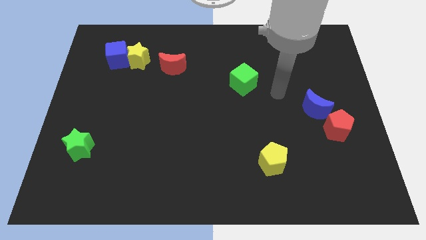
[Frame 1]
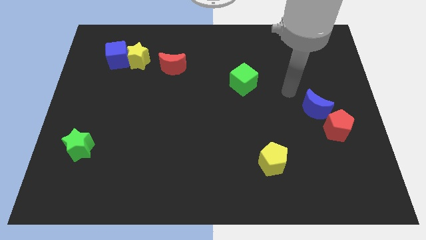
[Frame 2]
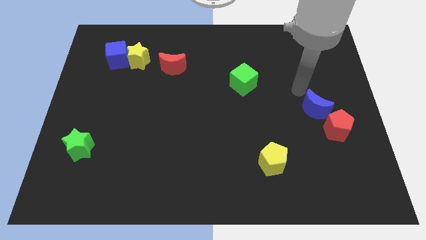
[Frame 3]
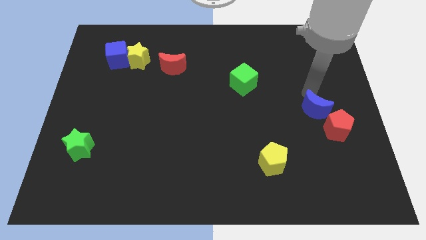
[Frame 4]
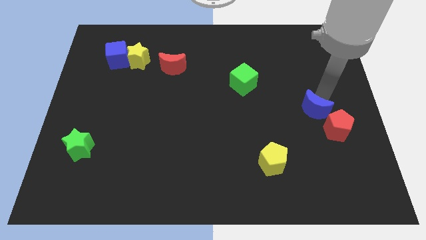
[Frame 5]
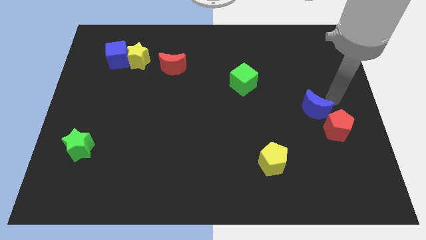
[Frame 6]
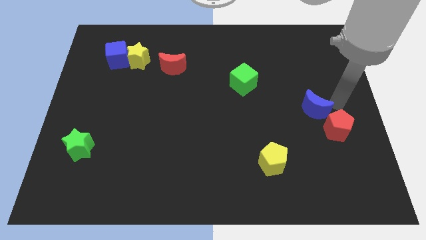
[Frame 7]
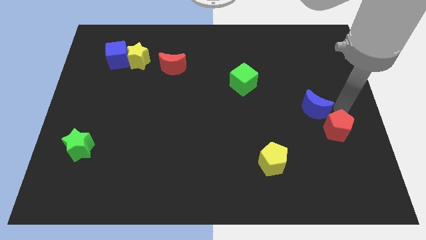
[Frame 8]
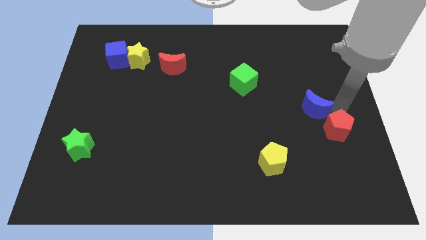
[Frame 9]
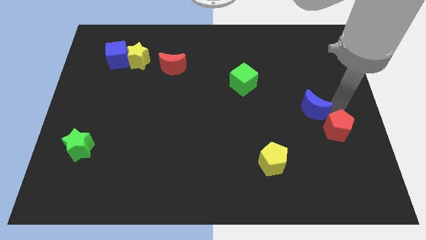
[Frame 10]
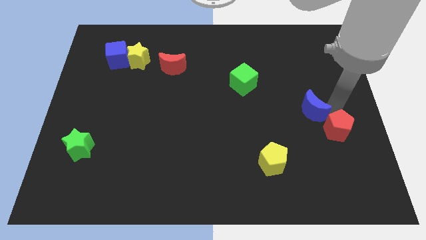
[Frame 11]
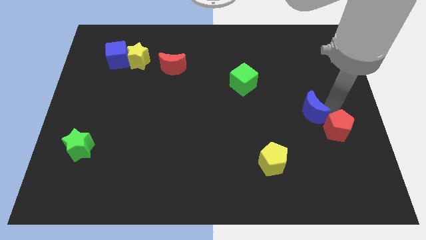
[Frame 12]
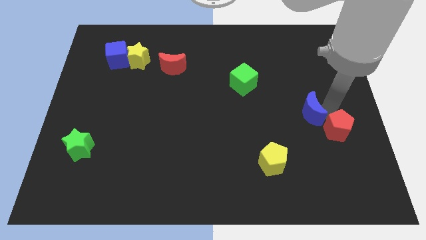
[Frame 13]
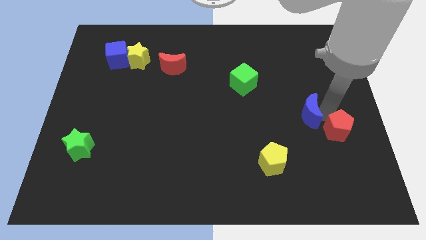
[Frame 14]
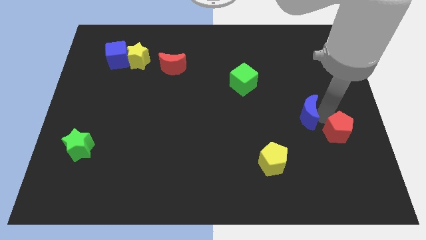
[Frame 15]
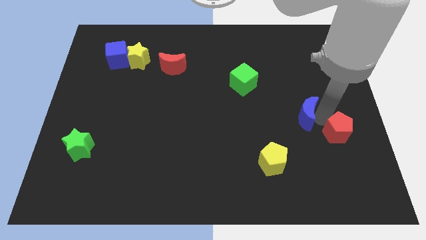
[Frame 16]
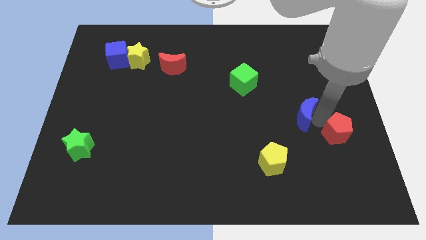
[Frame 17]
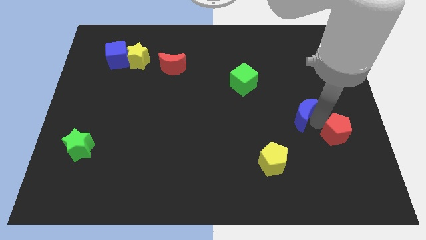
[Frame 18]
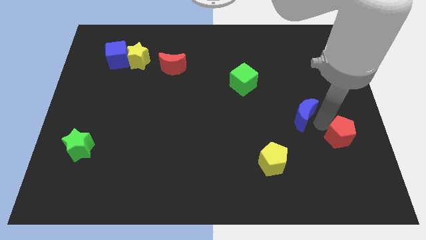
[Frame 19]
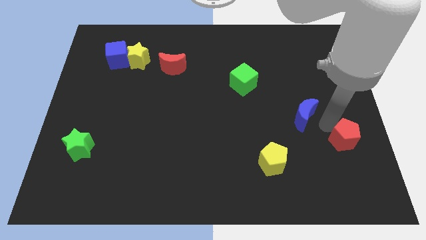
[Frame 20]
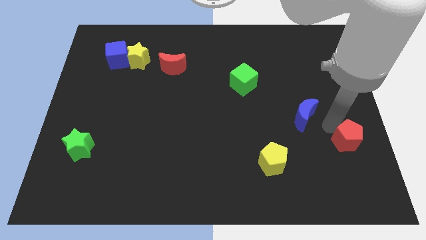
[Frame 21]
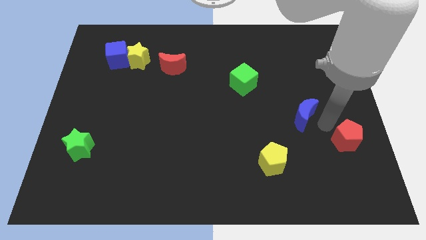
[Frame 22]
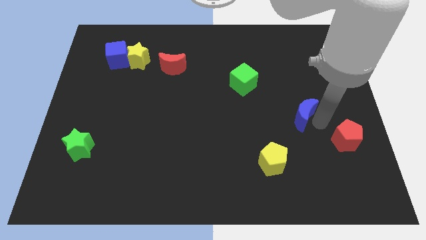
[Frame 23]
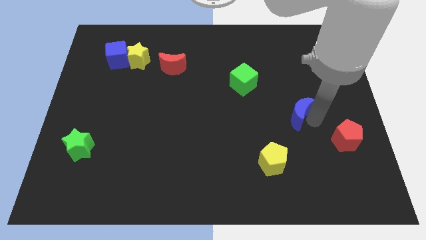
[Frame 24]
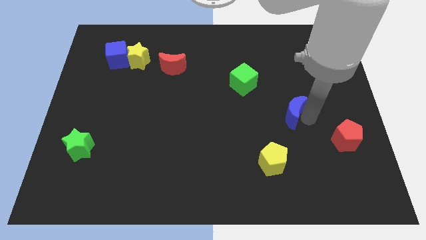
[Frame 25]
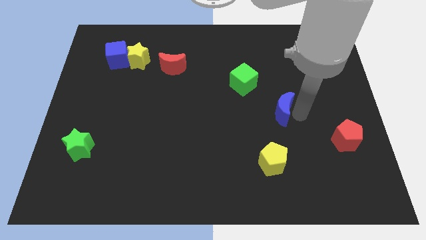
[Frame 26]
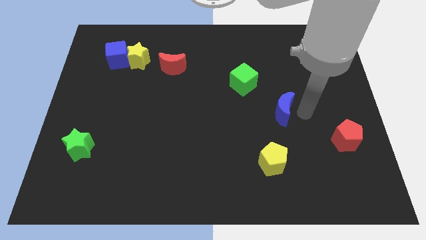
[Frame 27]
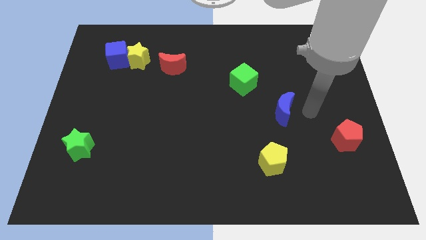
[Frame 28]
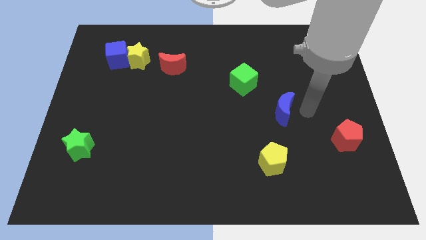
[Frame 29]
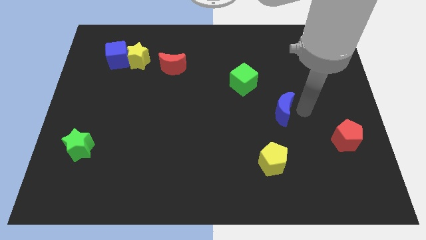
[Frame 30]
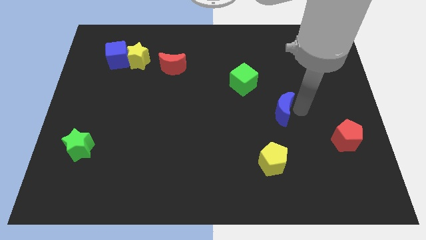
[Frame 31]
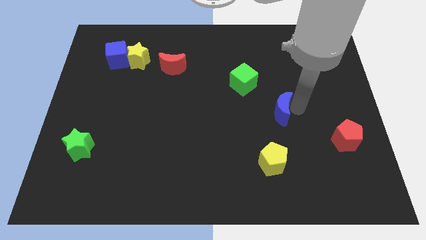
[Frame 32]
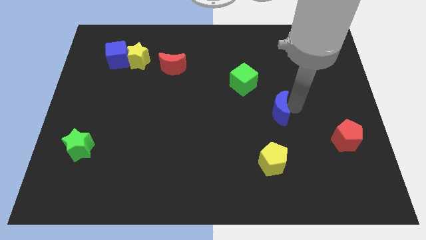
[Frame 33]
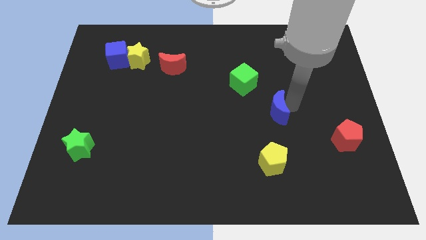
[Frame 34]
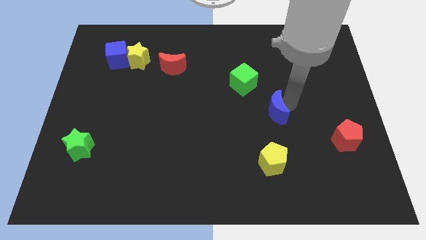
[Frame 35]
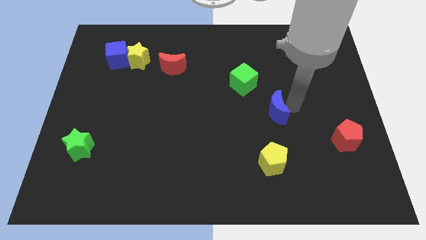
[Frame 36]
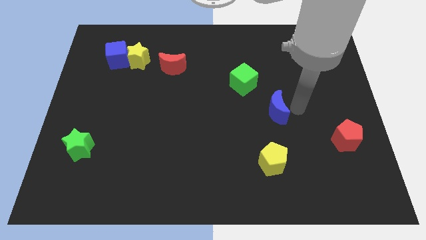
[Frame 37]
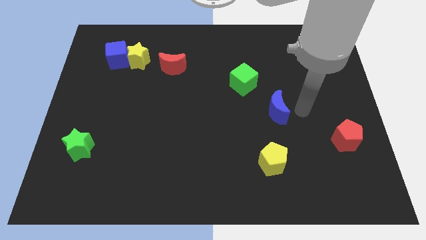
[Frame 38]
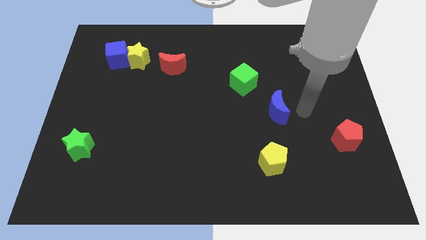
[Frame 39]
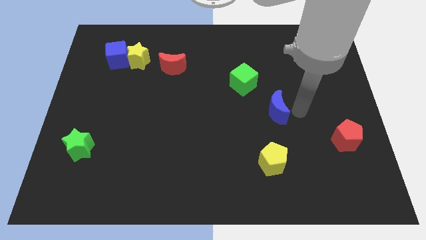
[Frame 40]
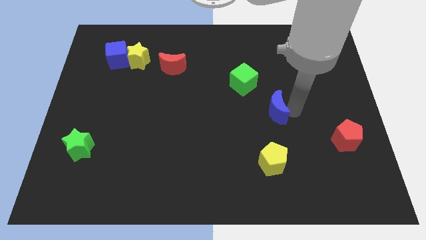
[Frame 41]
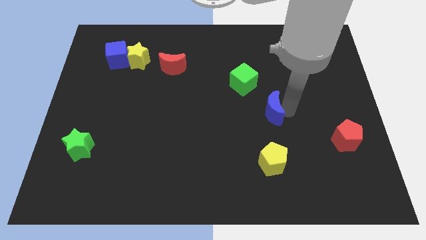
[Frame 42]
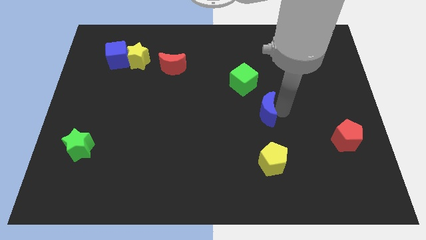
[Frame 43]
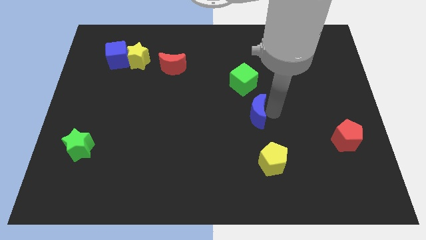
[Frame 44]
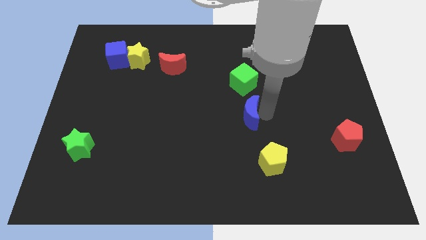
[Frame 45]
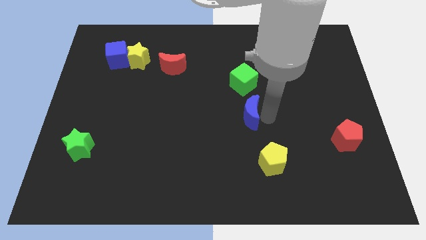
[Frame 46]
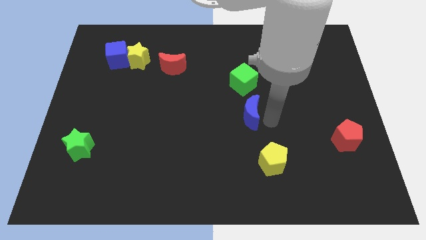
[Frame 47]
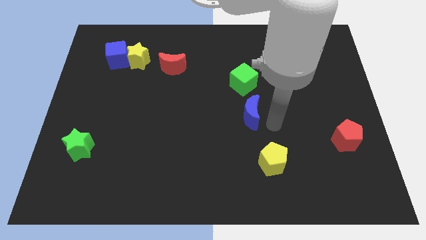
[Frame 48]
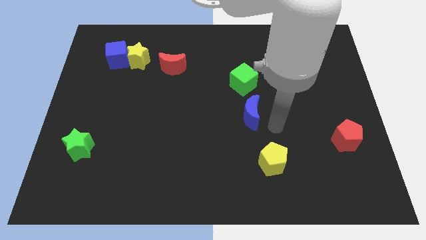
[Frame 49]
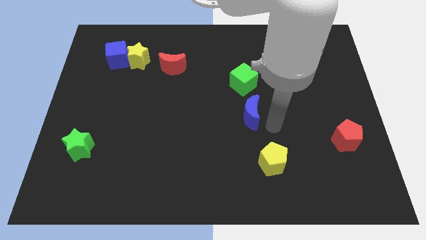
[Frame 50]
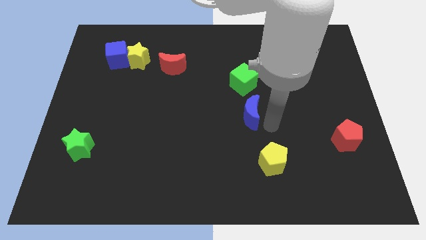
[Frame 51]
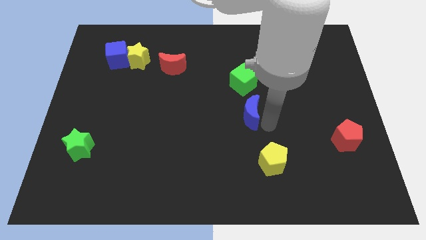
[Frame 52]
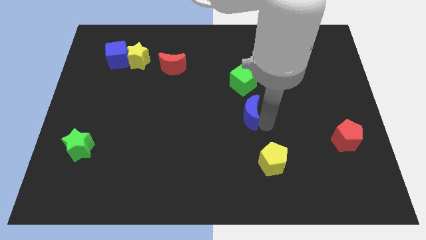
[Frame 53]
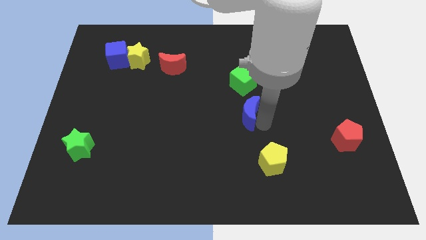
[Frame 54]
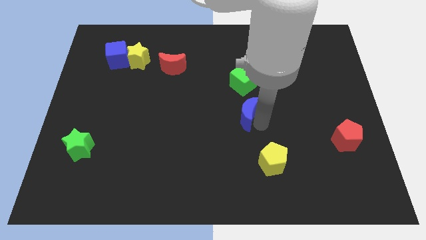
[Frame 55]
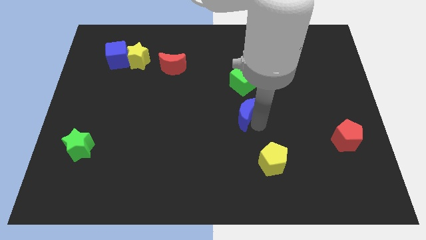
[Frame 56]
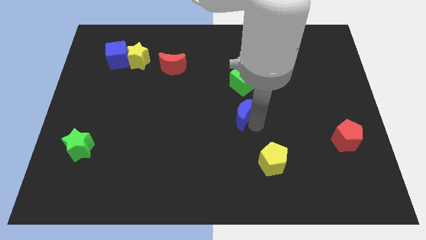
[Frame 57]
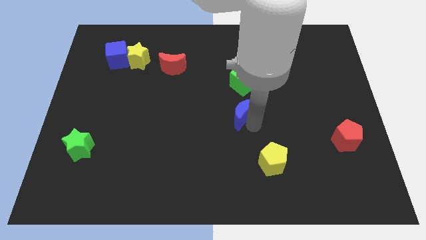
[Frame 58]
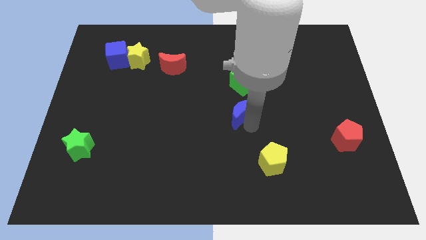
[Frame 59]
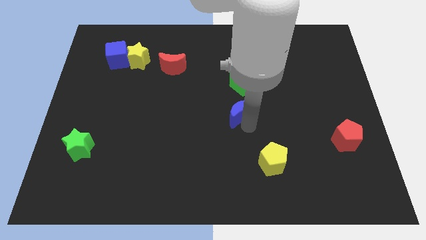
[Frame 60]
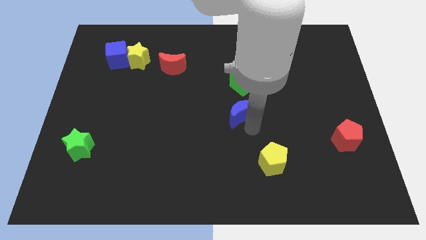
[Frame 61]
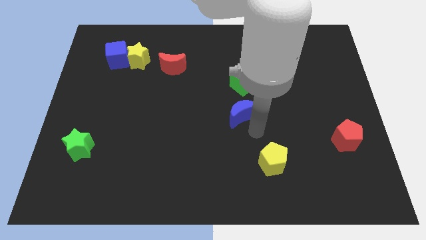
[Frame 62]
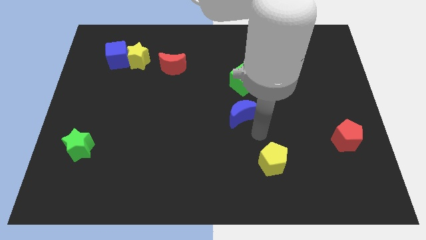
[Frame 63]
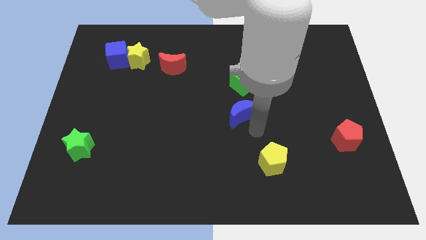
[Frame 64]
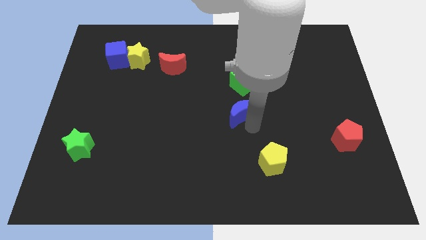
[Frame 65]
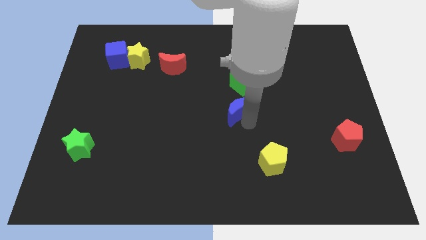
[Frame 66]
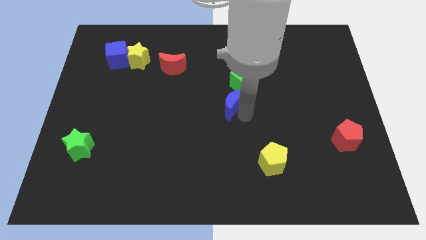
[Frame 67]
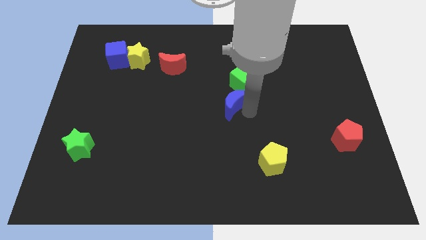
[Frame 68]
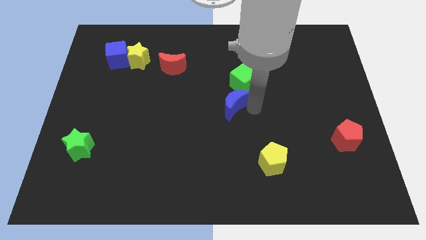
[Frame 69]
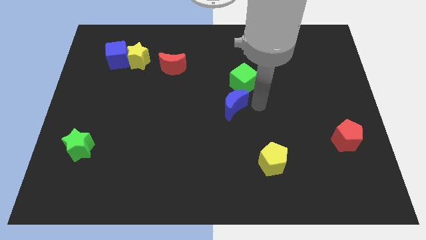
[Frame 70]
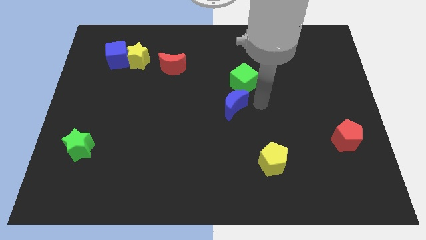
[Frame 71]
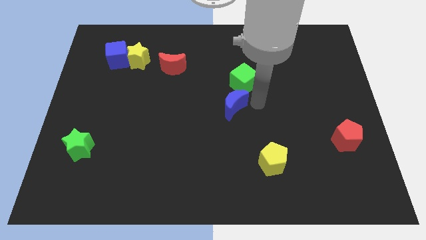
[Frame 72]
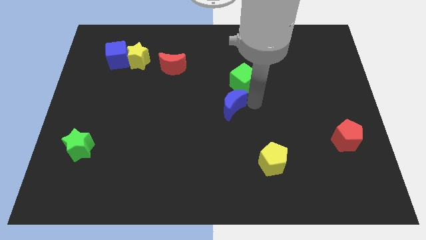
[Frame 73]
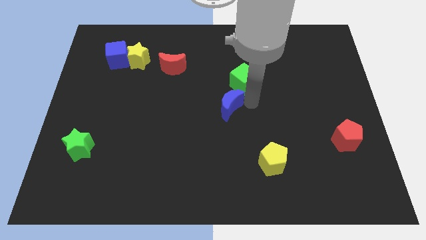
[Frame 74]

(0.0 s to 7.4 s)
push the blue moon to the left

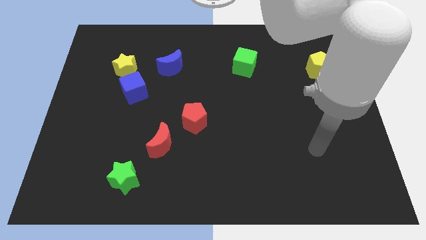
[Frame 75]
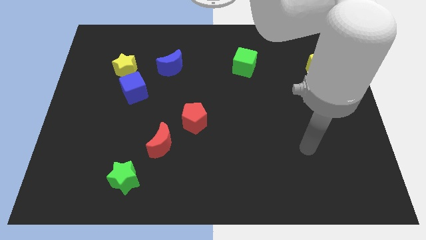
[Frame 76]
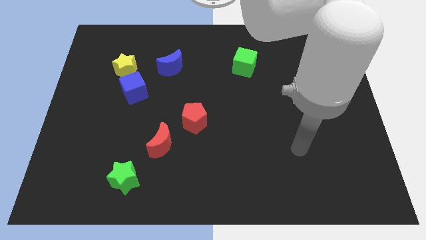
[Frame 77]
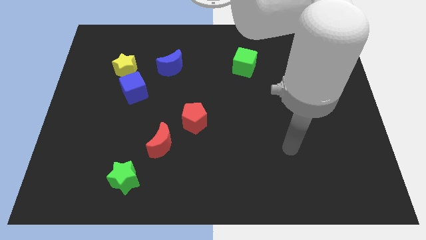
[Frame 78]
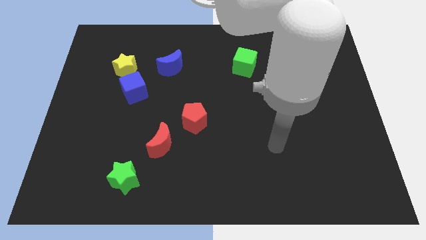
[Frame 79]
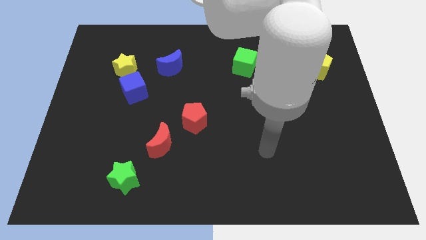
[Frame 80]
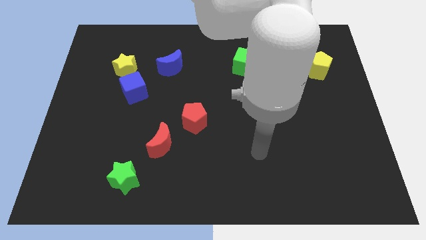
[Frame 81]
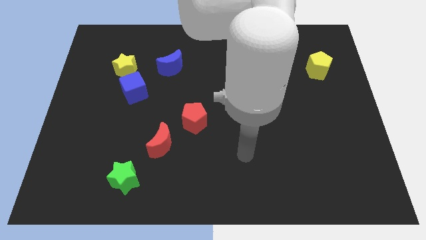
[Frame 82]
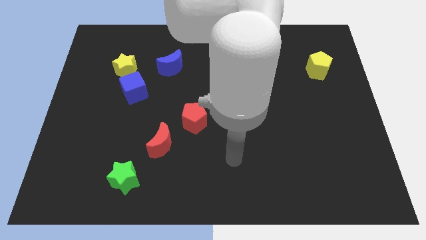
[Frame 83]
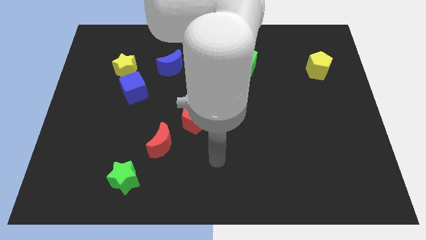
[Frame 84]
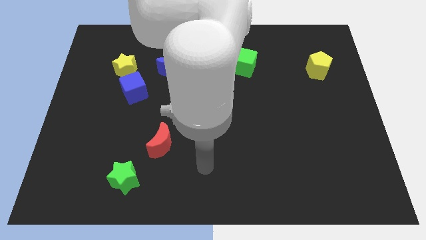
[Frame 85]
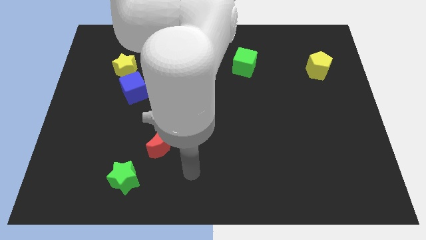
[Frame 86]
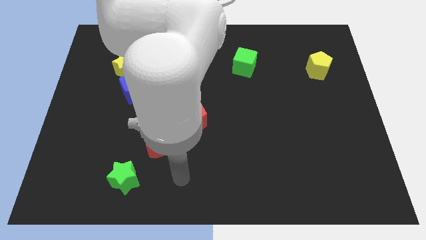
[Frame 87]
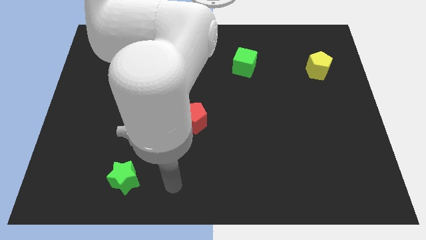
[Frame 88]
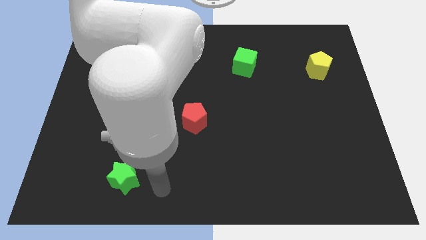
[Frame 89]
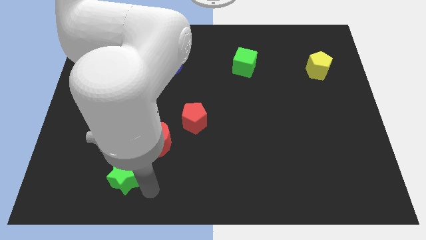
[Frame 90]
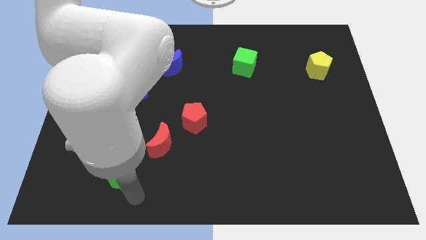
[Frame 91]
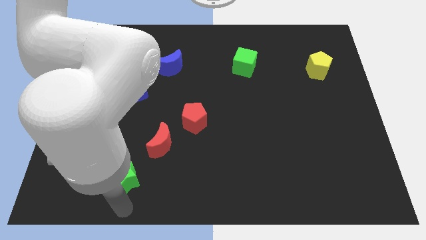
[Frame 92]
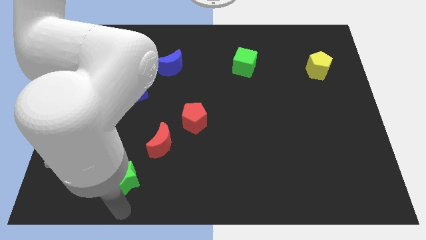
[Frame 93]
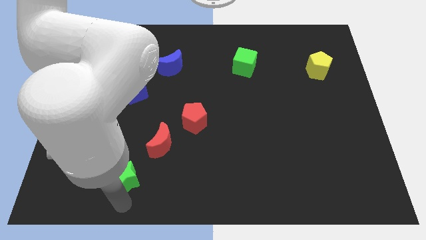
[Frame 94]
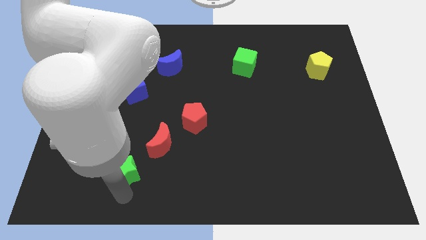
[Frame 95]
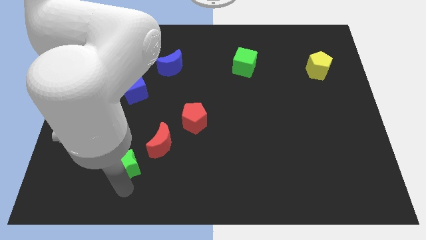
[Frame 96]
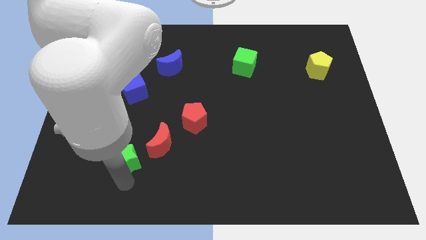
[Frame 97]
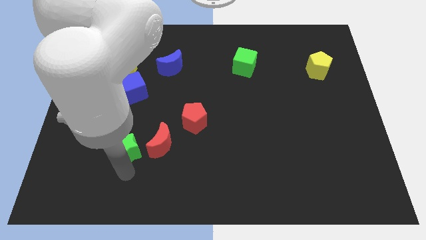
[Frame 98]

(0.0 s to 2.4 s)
slightly move the green star upwards
